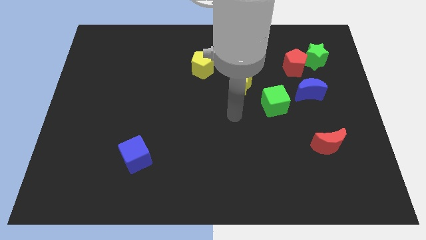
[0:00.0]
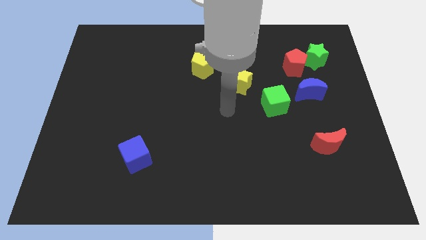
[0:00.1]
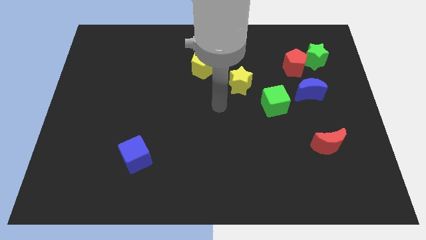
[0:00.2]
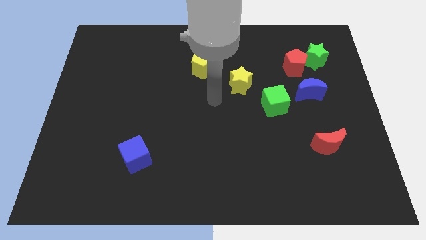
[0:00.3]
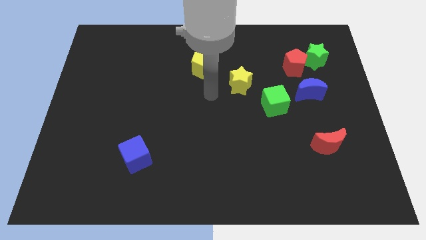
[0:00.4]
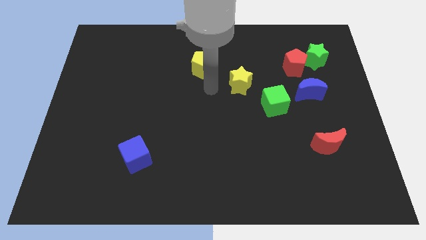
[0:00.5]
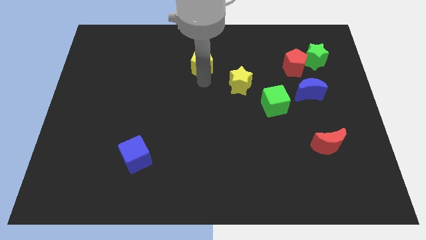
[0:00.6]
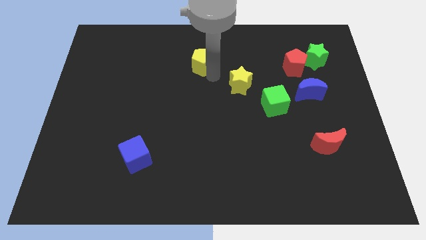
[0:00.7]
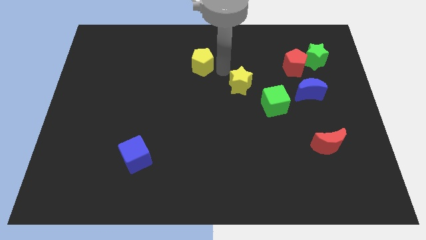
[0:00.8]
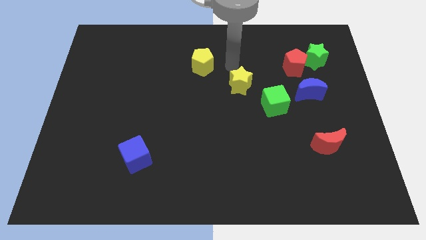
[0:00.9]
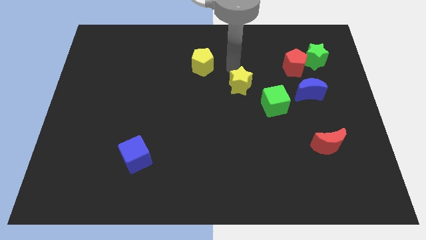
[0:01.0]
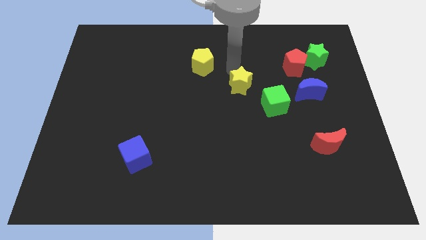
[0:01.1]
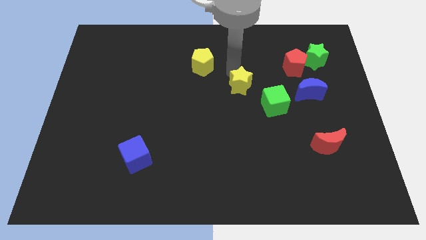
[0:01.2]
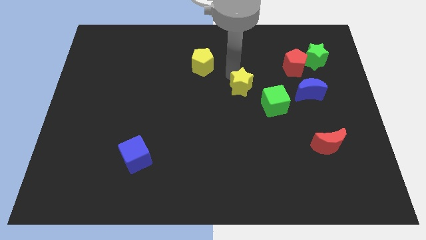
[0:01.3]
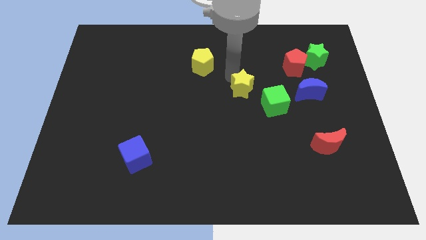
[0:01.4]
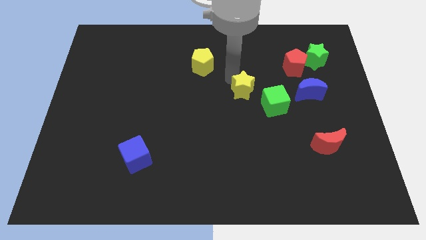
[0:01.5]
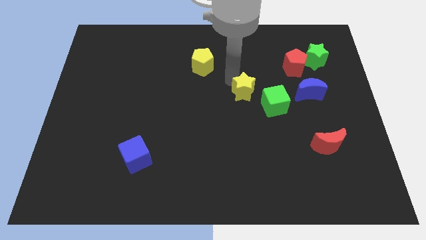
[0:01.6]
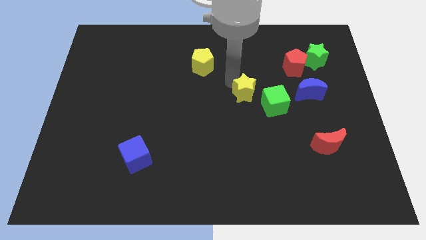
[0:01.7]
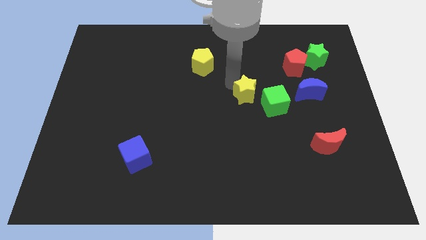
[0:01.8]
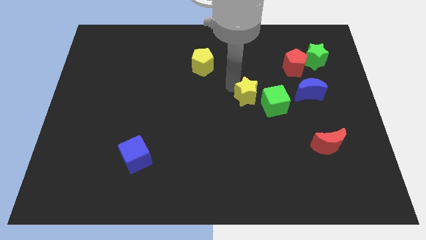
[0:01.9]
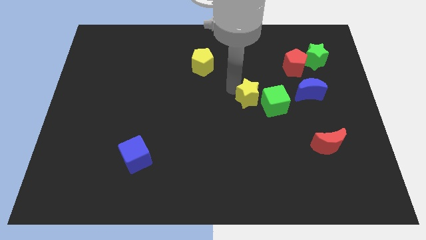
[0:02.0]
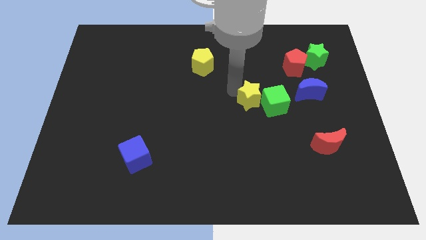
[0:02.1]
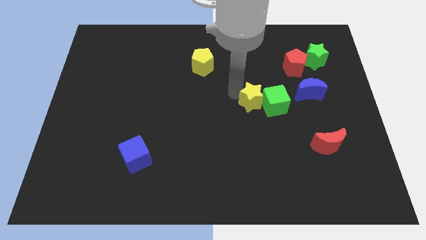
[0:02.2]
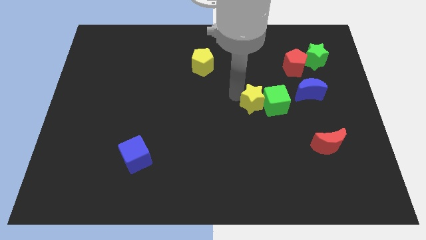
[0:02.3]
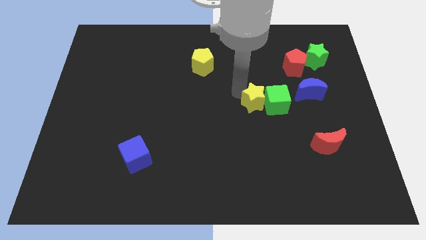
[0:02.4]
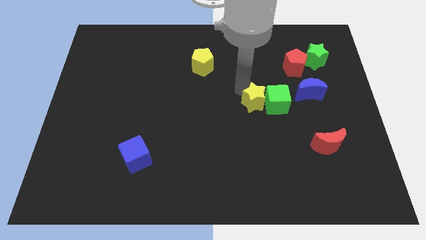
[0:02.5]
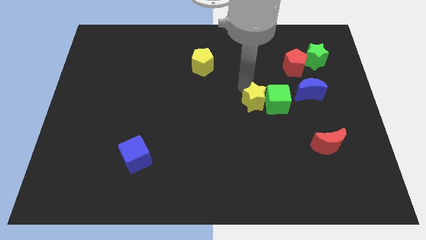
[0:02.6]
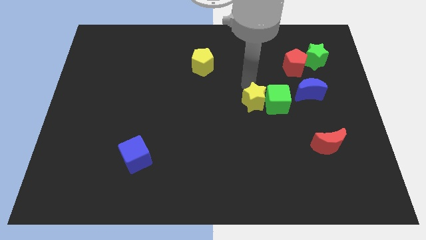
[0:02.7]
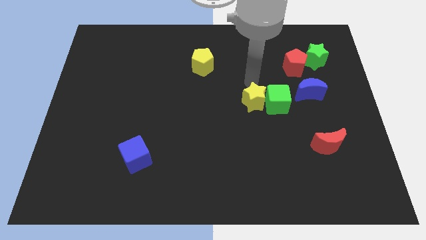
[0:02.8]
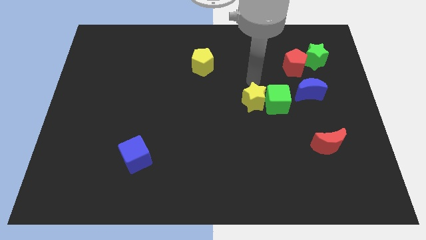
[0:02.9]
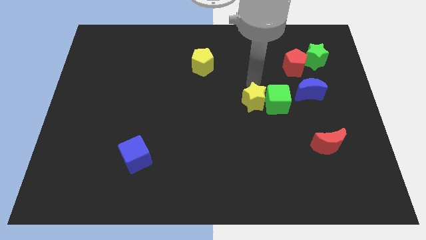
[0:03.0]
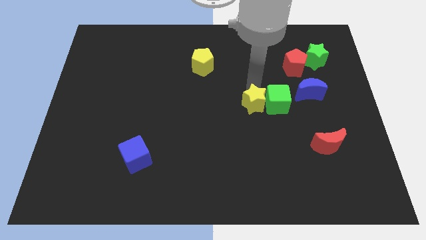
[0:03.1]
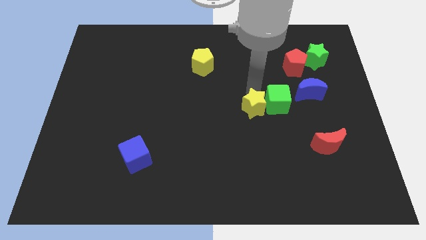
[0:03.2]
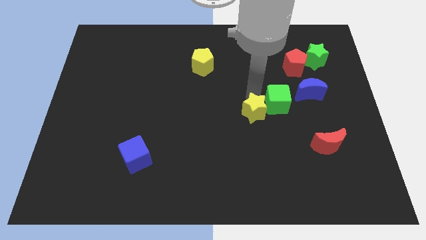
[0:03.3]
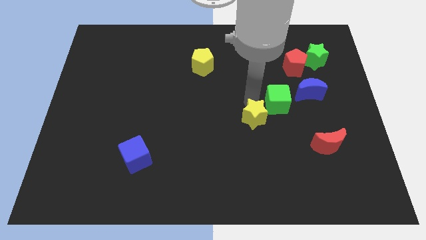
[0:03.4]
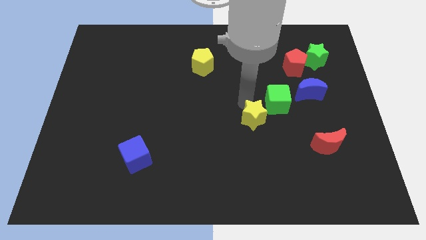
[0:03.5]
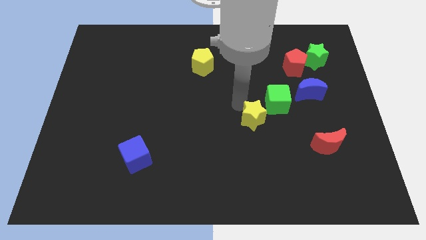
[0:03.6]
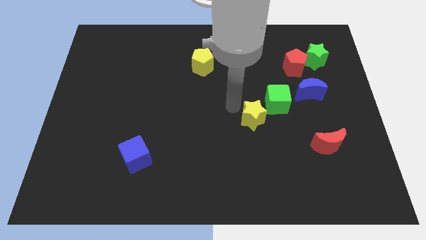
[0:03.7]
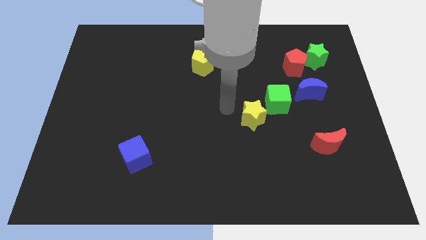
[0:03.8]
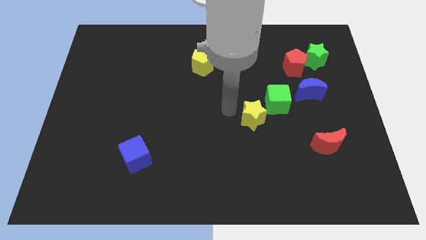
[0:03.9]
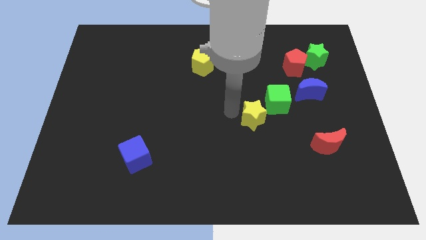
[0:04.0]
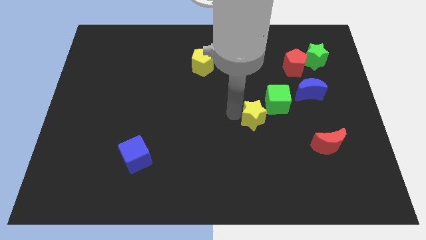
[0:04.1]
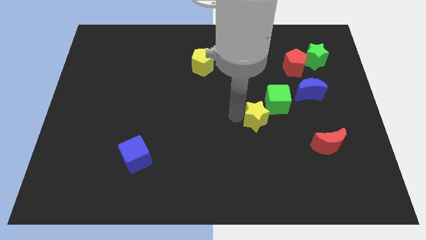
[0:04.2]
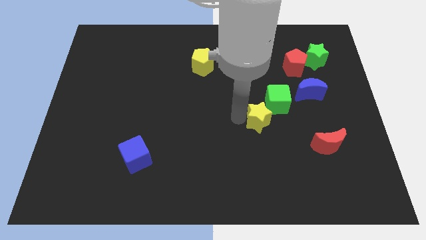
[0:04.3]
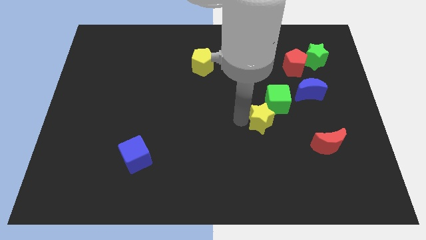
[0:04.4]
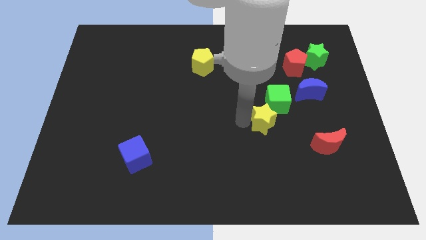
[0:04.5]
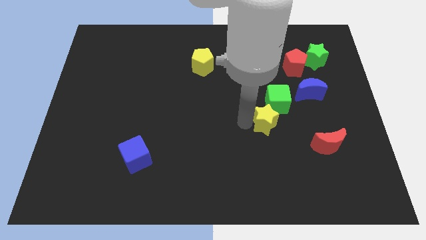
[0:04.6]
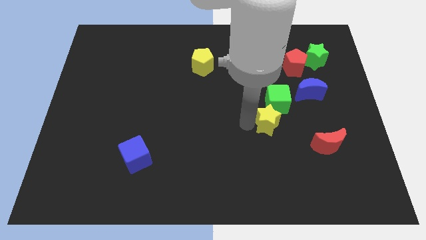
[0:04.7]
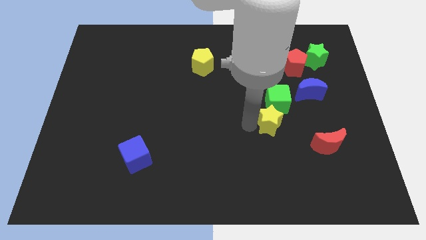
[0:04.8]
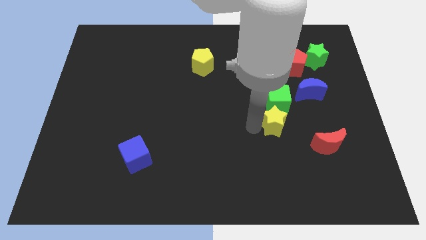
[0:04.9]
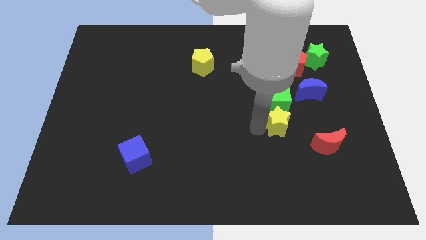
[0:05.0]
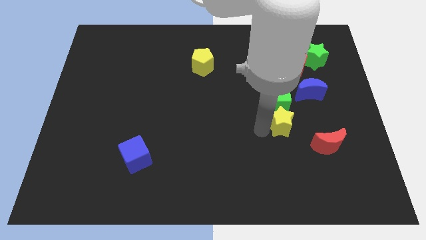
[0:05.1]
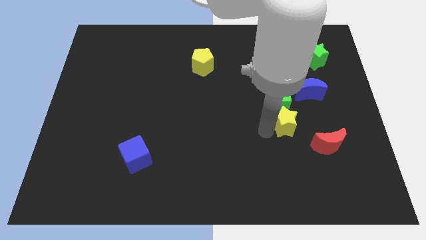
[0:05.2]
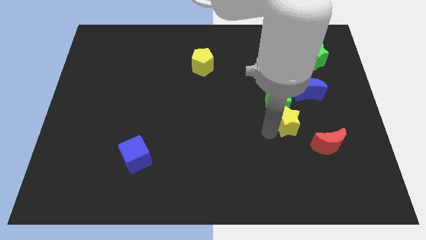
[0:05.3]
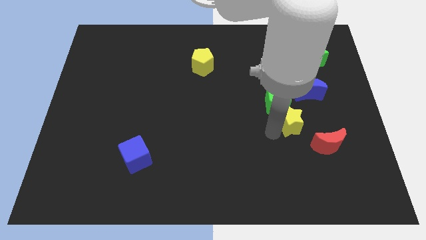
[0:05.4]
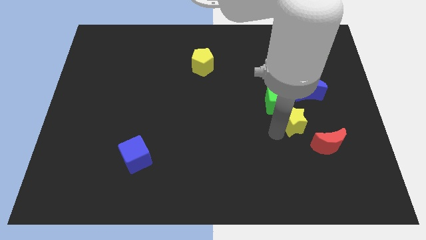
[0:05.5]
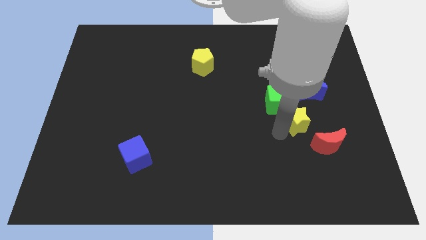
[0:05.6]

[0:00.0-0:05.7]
move the yellow star below the blue moon

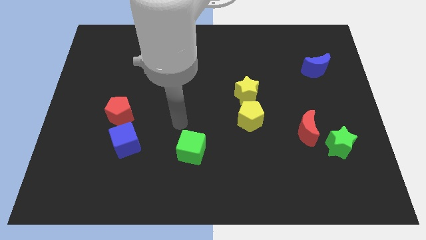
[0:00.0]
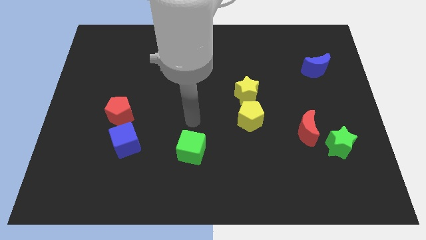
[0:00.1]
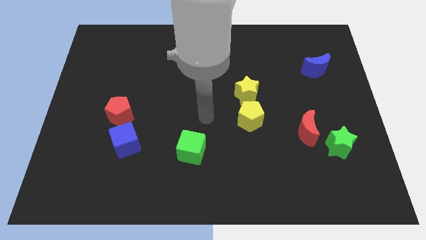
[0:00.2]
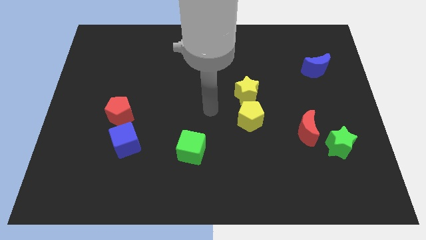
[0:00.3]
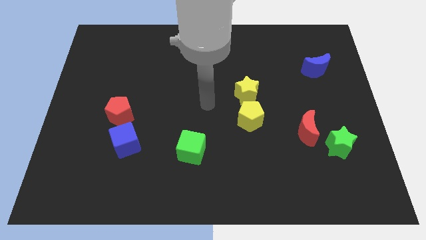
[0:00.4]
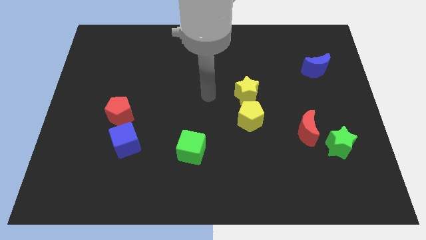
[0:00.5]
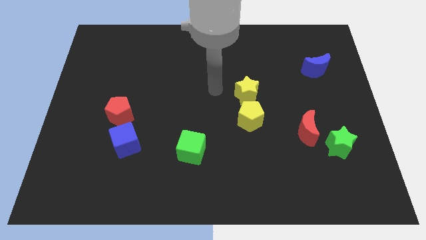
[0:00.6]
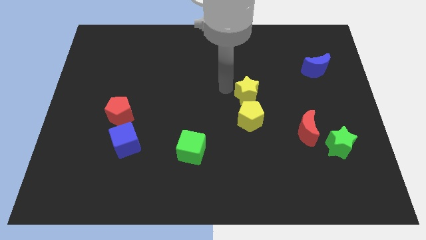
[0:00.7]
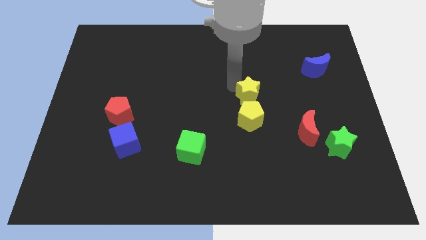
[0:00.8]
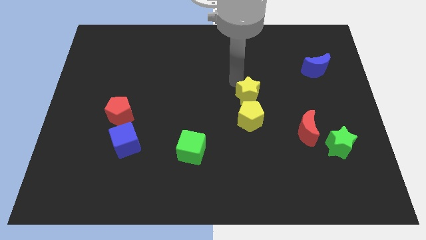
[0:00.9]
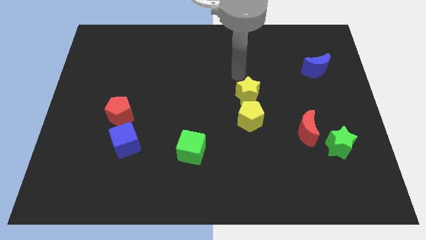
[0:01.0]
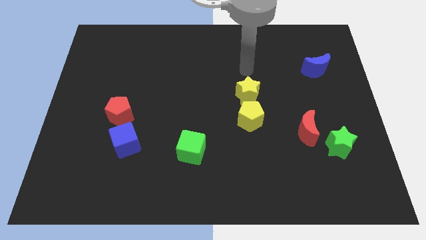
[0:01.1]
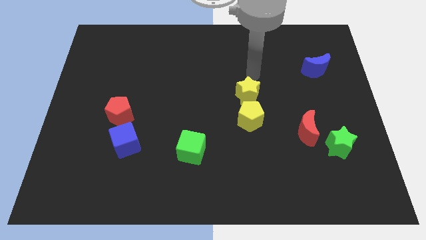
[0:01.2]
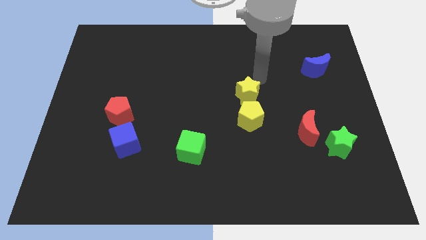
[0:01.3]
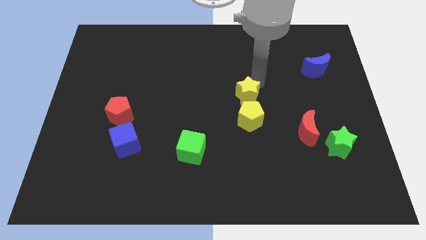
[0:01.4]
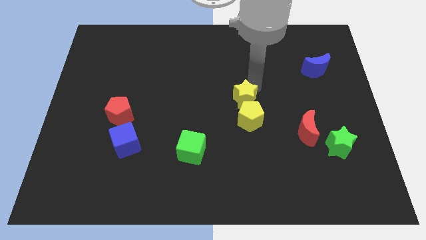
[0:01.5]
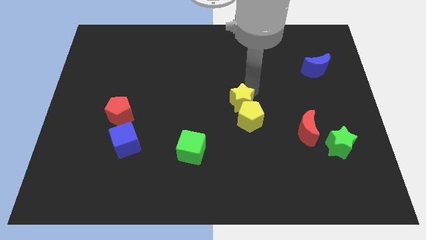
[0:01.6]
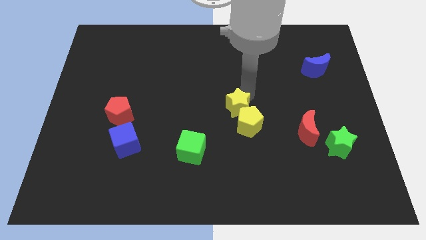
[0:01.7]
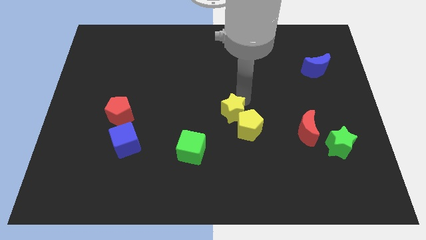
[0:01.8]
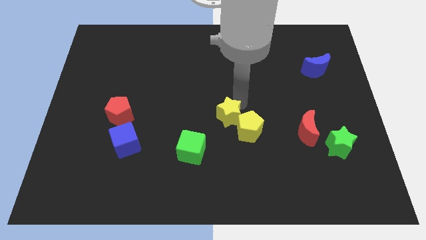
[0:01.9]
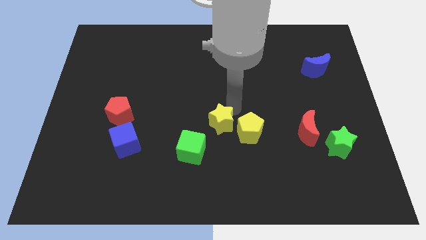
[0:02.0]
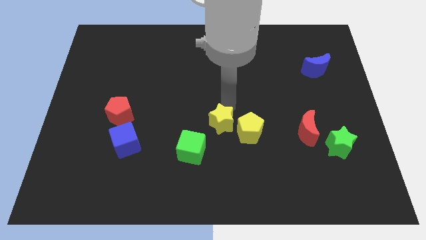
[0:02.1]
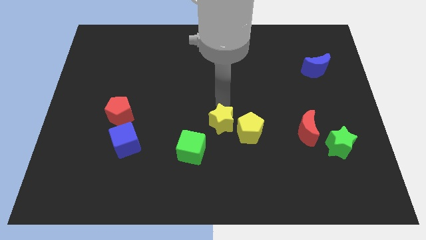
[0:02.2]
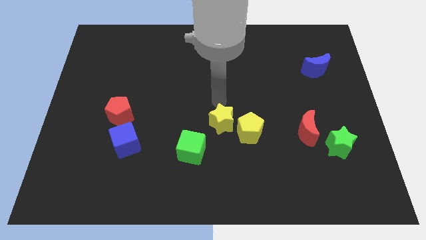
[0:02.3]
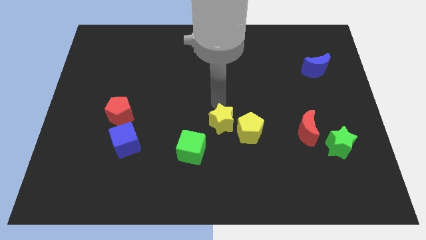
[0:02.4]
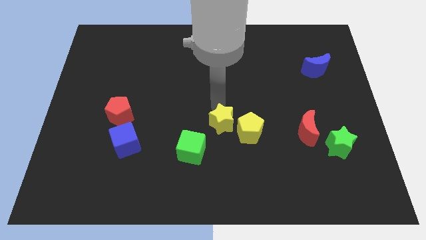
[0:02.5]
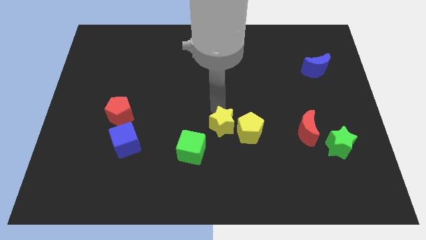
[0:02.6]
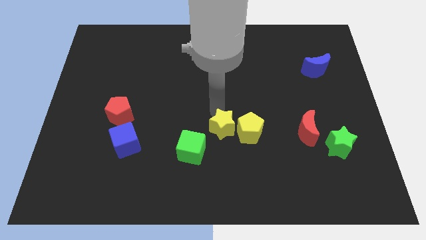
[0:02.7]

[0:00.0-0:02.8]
slide the yellow star to the bottom left of the yellow pentagon
